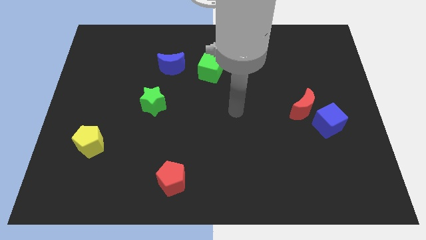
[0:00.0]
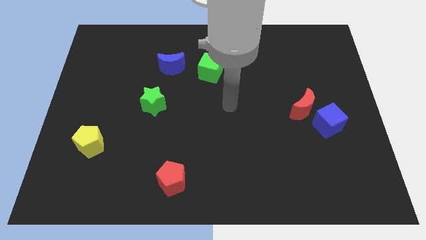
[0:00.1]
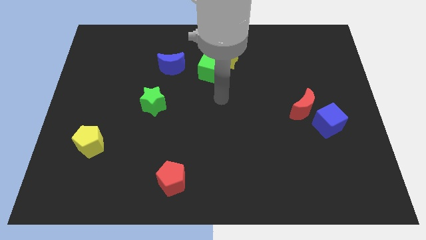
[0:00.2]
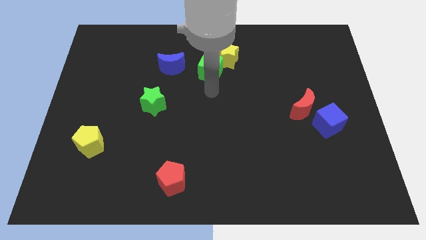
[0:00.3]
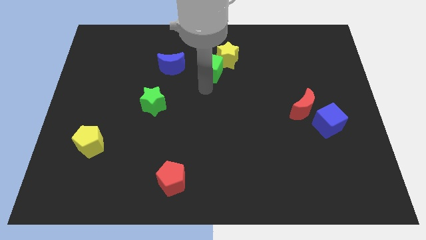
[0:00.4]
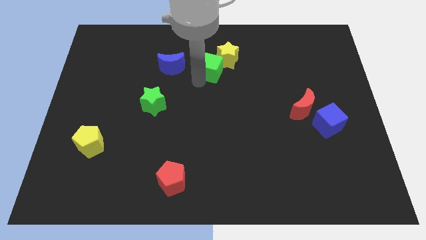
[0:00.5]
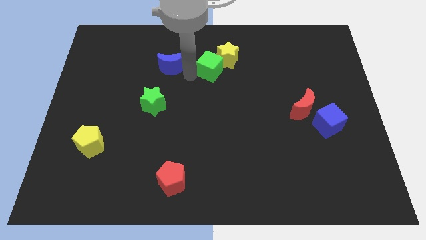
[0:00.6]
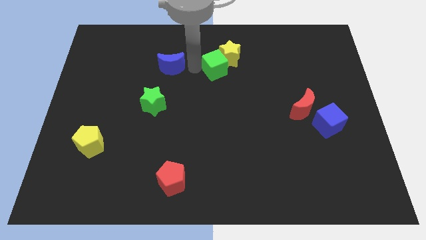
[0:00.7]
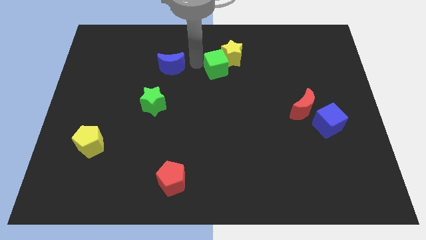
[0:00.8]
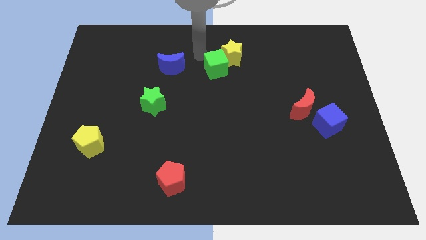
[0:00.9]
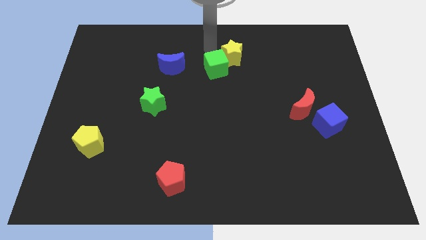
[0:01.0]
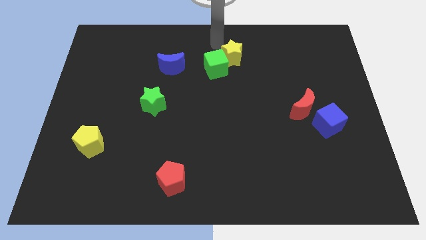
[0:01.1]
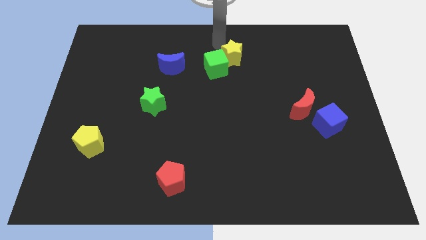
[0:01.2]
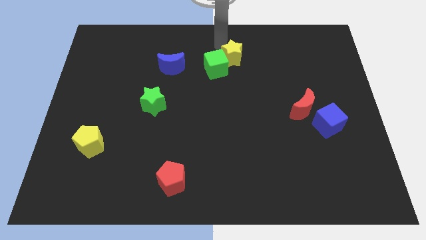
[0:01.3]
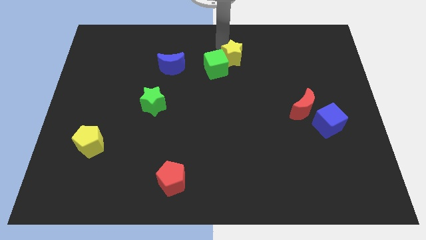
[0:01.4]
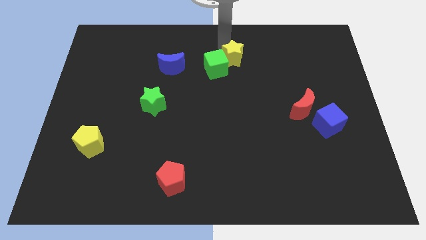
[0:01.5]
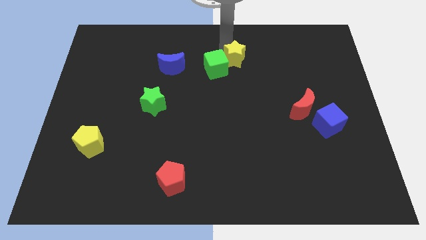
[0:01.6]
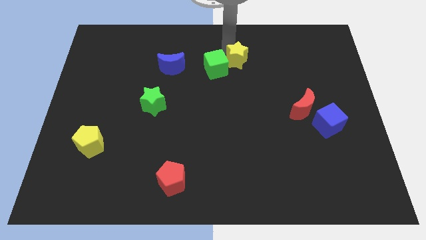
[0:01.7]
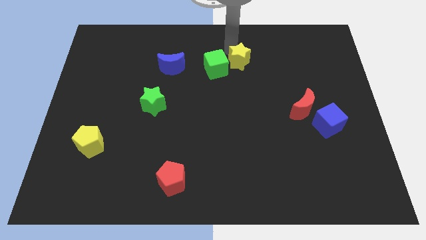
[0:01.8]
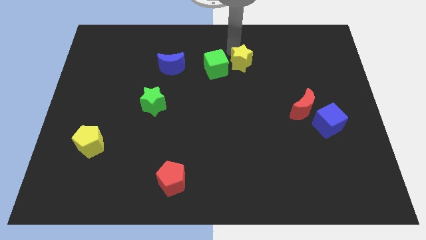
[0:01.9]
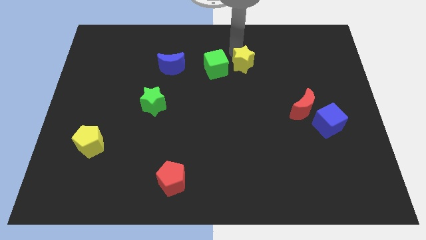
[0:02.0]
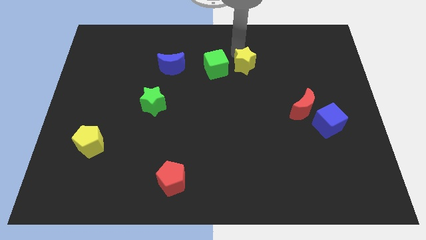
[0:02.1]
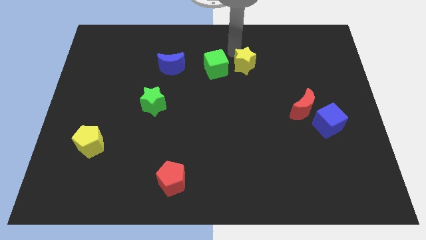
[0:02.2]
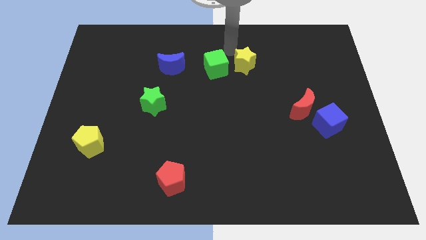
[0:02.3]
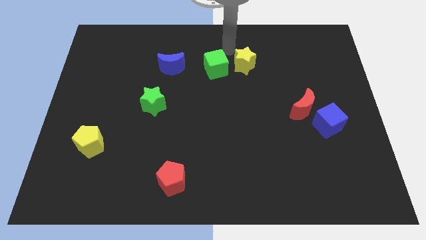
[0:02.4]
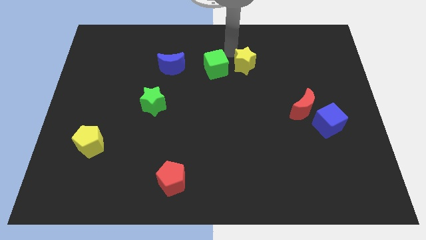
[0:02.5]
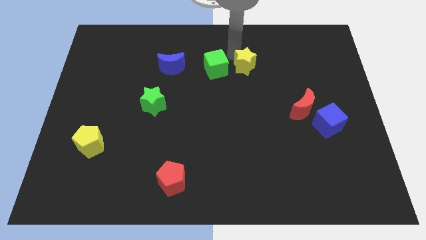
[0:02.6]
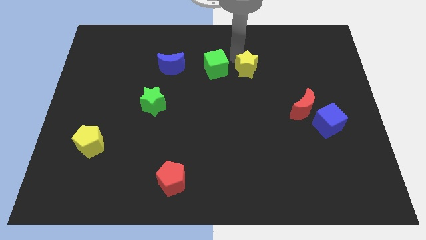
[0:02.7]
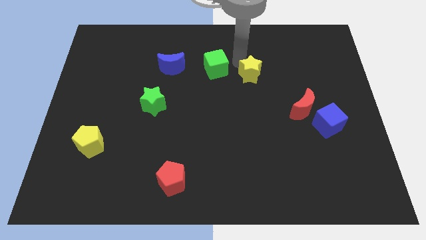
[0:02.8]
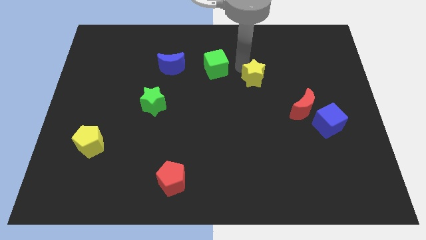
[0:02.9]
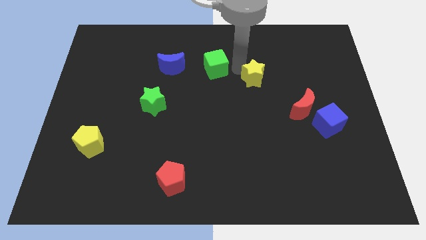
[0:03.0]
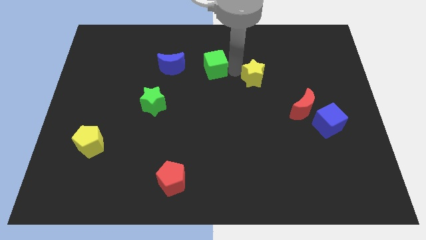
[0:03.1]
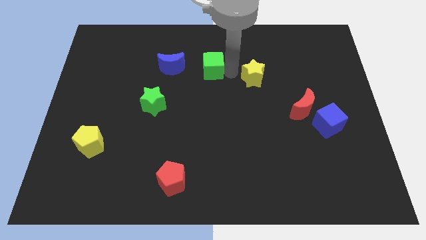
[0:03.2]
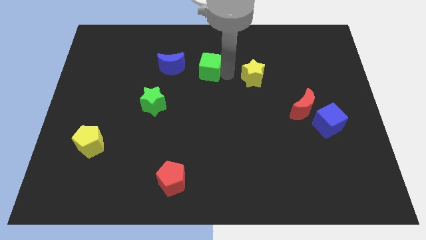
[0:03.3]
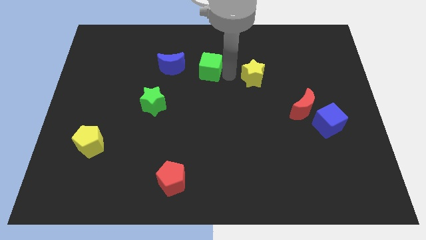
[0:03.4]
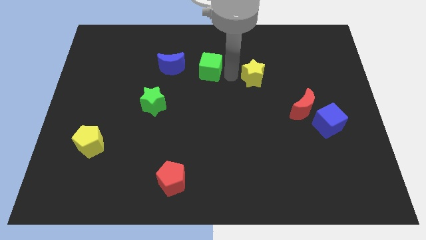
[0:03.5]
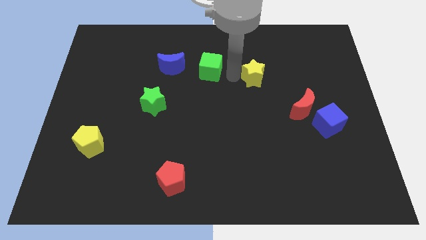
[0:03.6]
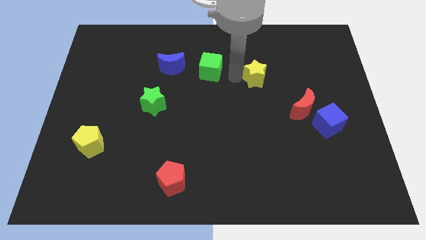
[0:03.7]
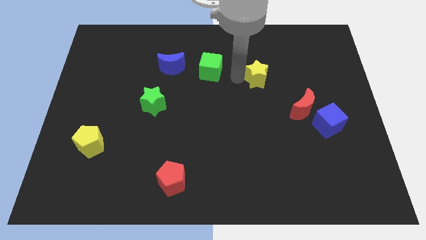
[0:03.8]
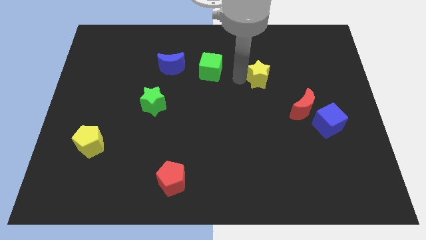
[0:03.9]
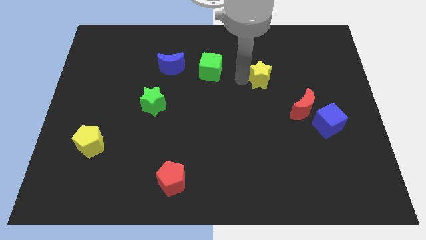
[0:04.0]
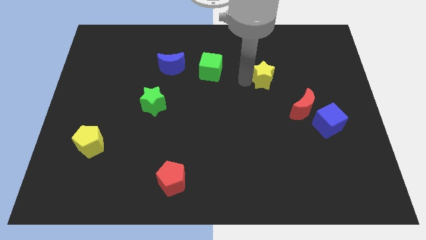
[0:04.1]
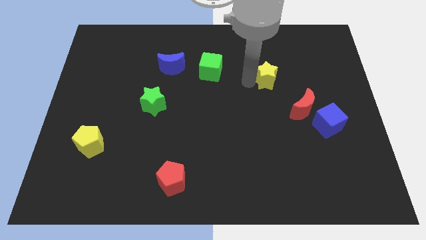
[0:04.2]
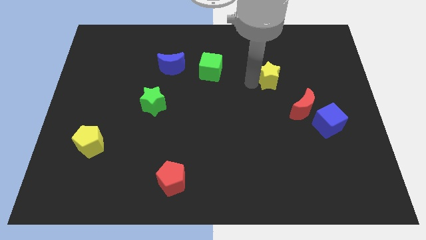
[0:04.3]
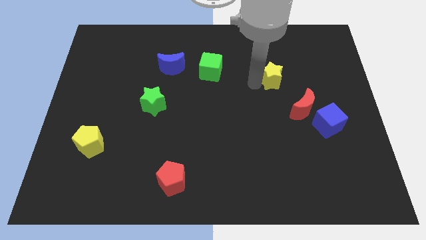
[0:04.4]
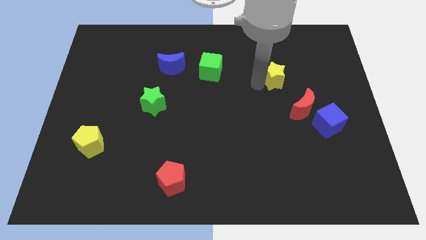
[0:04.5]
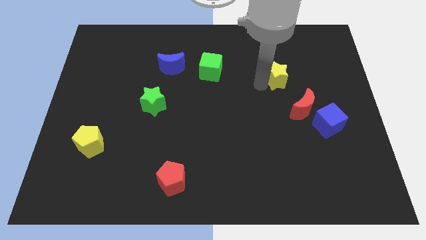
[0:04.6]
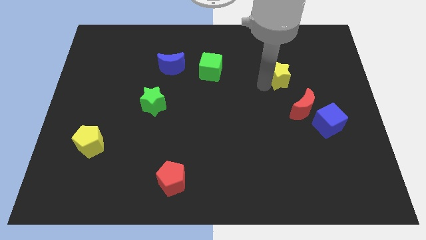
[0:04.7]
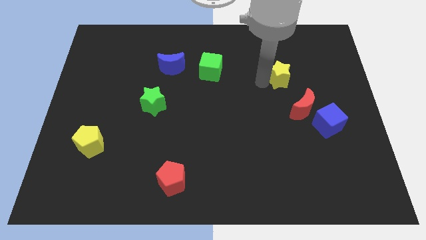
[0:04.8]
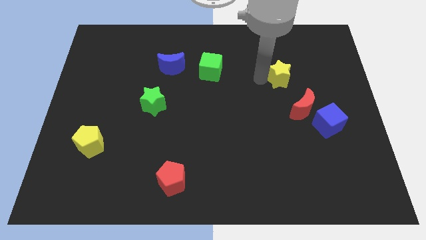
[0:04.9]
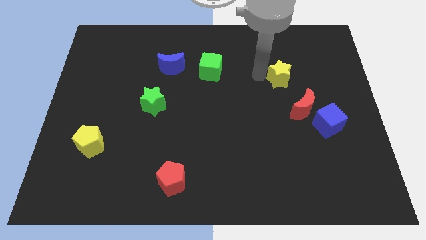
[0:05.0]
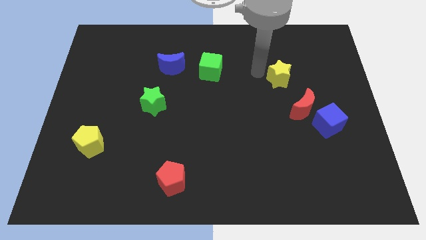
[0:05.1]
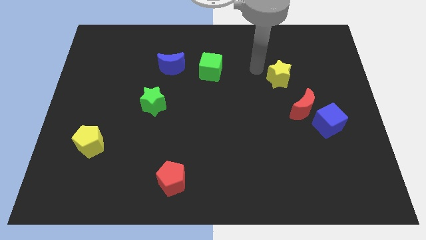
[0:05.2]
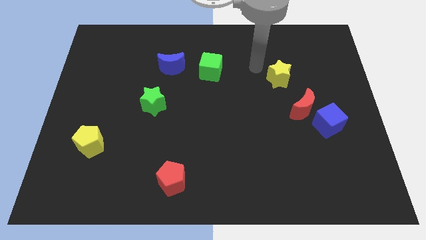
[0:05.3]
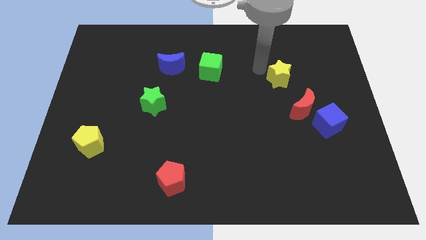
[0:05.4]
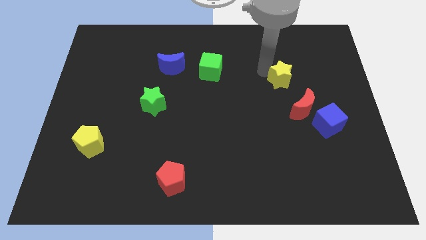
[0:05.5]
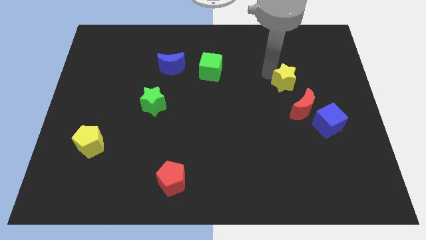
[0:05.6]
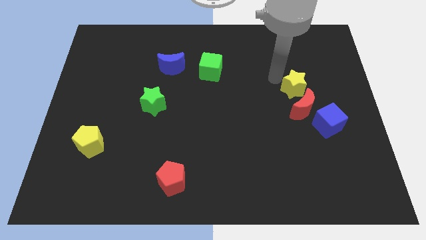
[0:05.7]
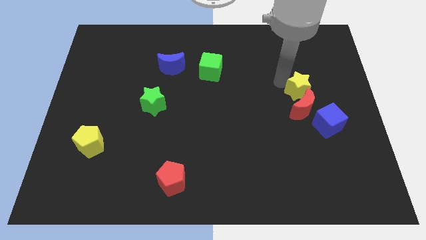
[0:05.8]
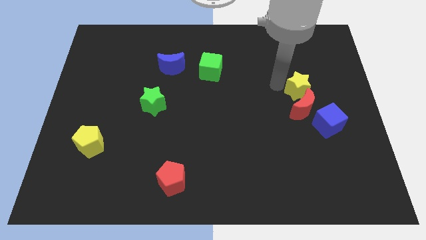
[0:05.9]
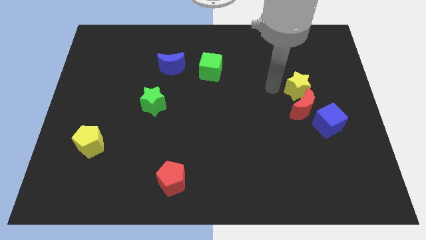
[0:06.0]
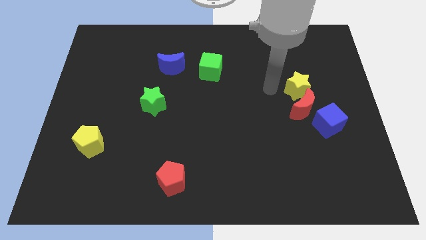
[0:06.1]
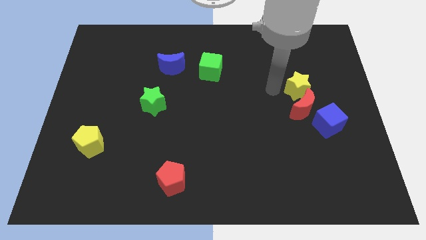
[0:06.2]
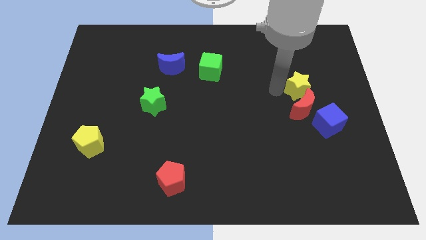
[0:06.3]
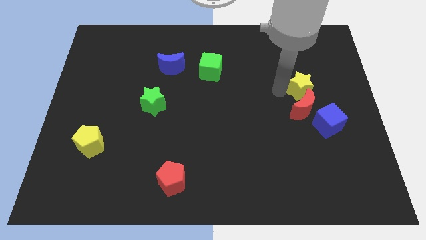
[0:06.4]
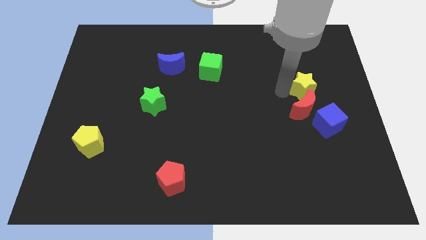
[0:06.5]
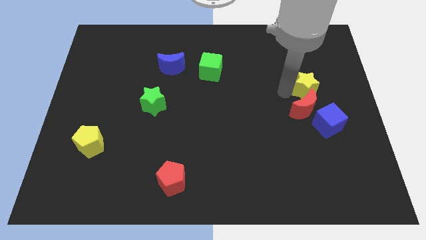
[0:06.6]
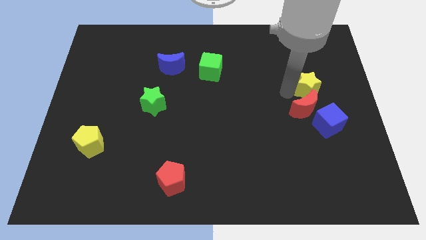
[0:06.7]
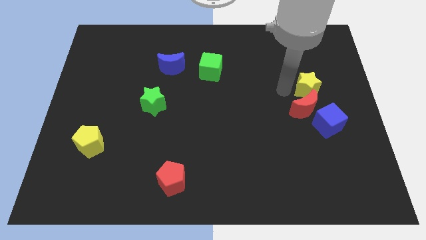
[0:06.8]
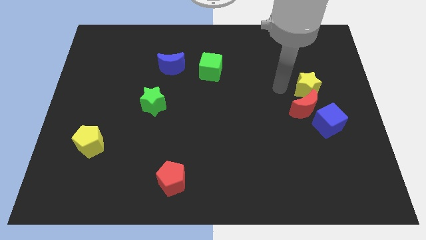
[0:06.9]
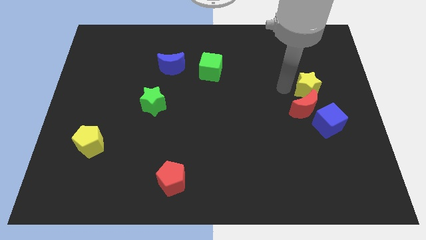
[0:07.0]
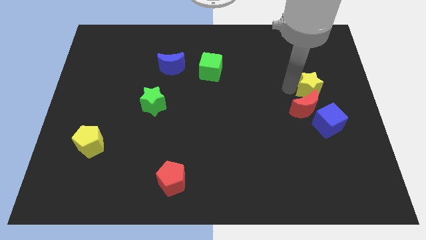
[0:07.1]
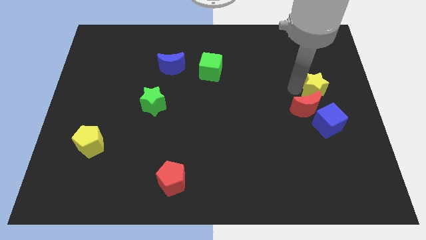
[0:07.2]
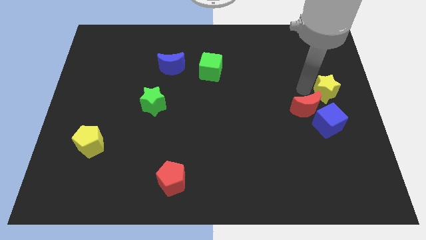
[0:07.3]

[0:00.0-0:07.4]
push the yellow star to the right side of the board
